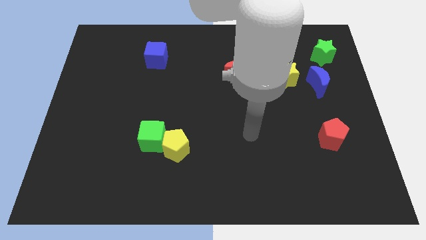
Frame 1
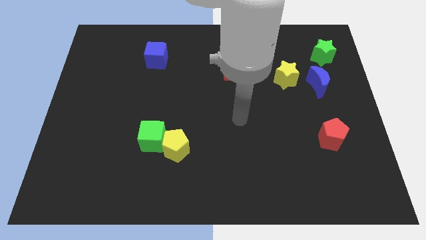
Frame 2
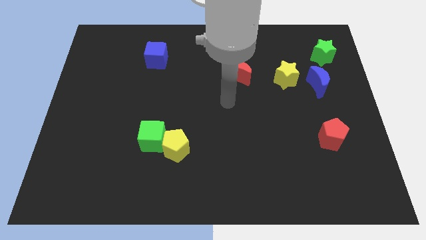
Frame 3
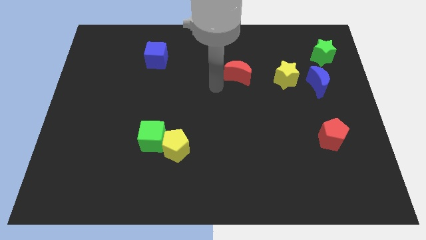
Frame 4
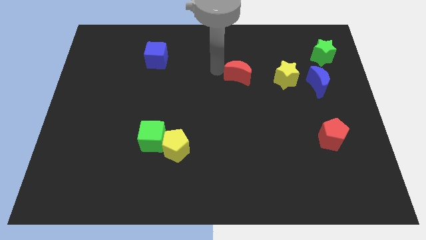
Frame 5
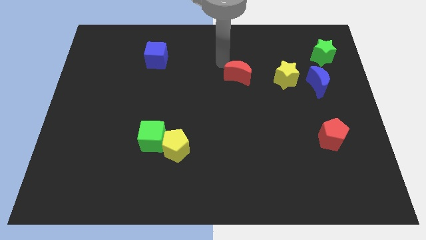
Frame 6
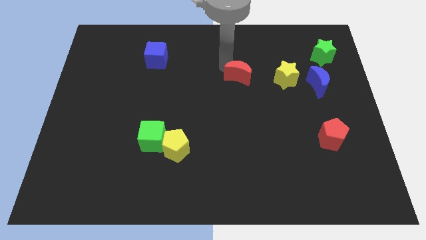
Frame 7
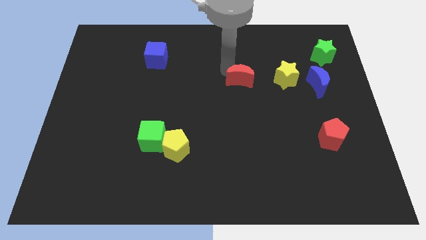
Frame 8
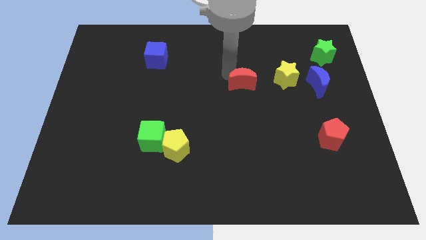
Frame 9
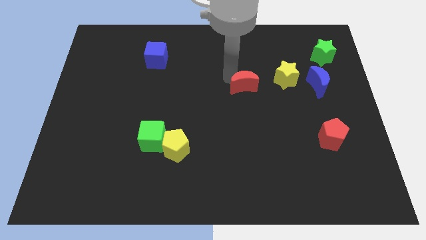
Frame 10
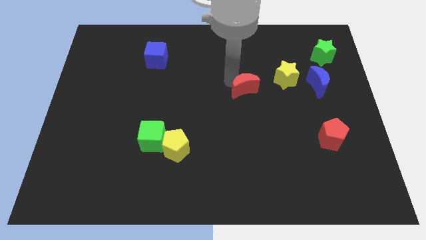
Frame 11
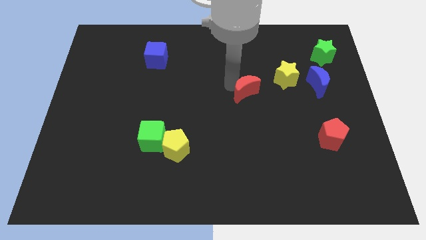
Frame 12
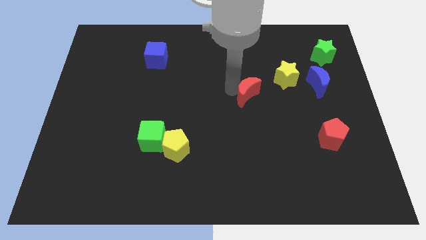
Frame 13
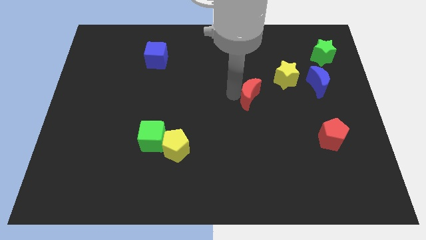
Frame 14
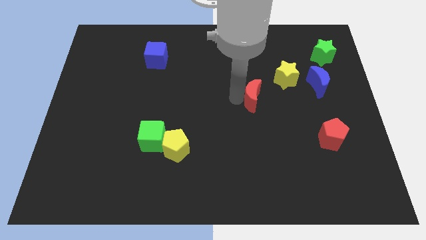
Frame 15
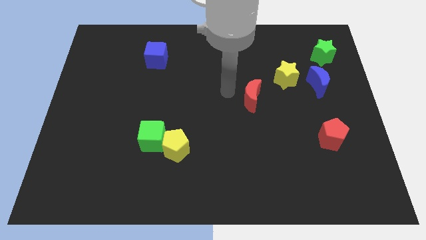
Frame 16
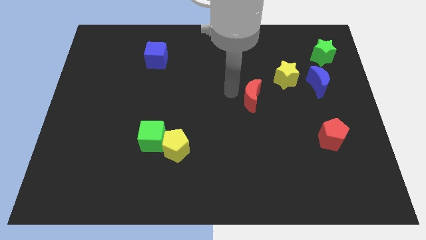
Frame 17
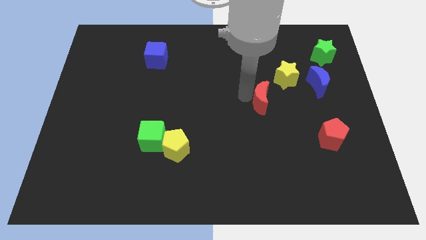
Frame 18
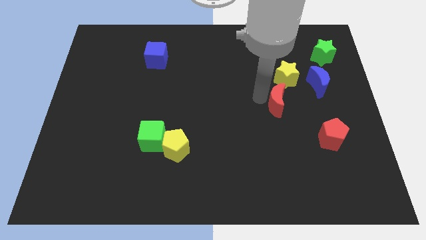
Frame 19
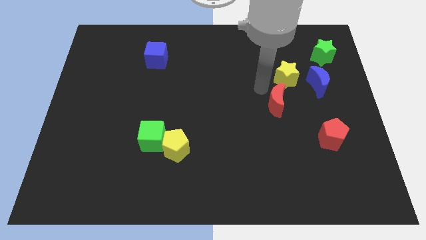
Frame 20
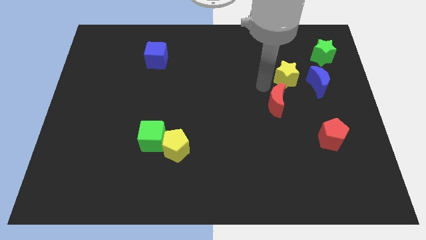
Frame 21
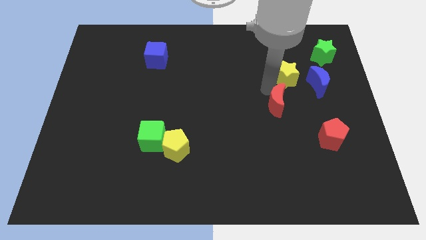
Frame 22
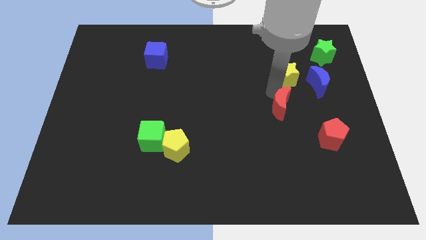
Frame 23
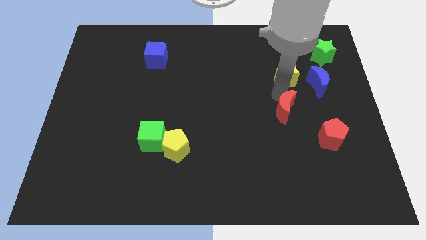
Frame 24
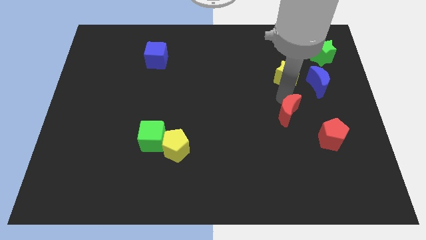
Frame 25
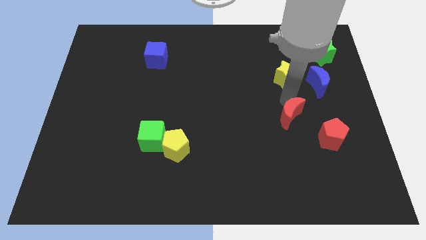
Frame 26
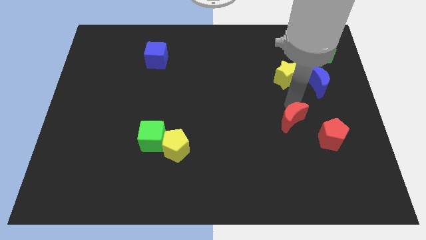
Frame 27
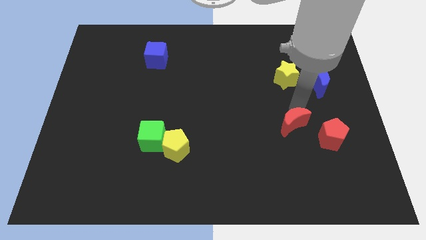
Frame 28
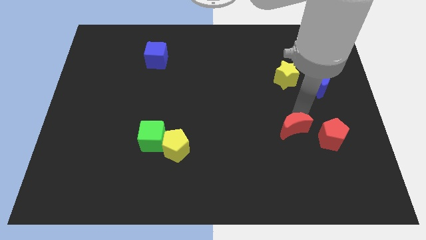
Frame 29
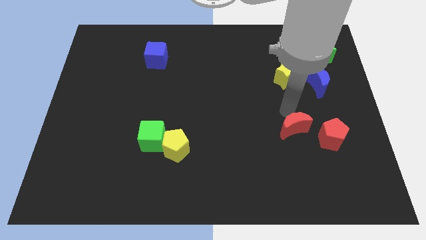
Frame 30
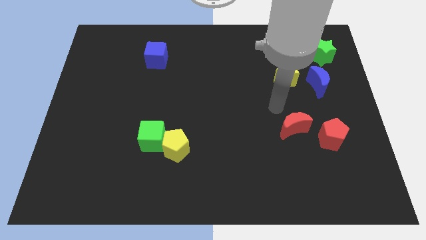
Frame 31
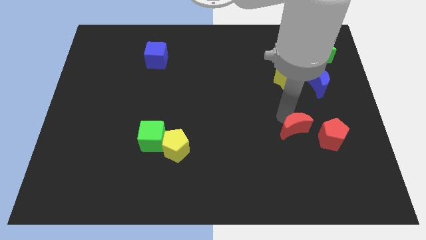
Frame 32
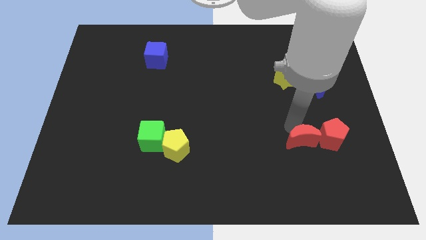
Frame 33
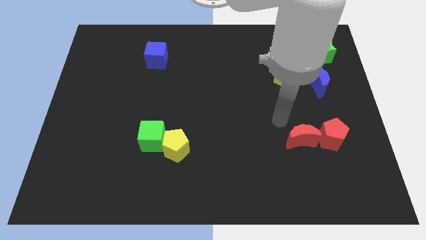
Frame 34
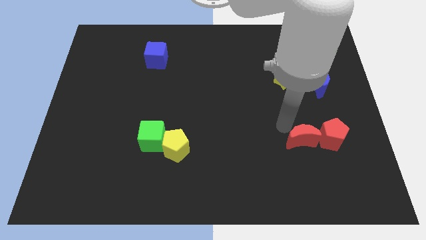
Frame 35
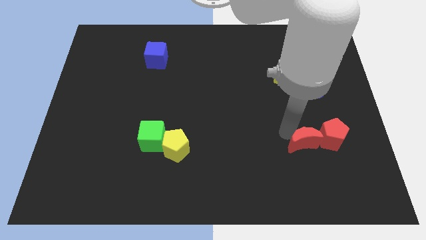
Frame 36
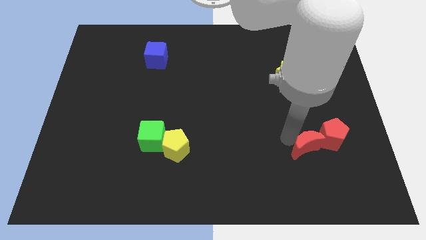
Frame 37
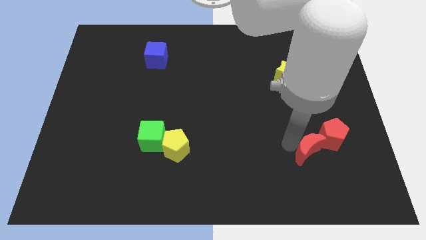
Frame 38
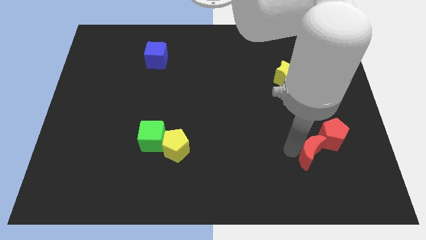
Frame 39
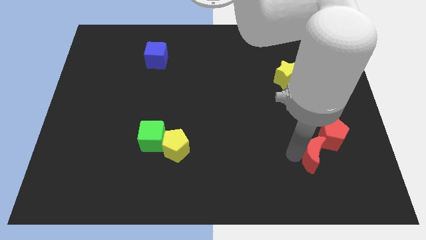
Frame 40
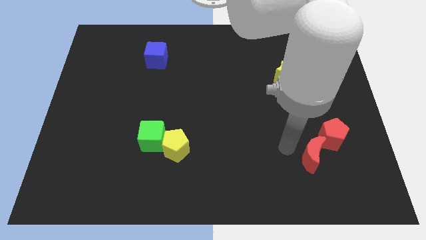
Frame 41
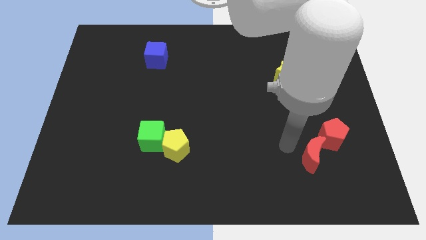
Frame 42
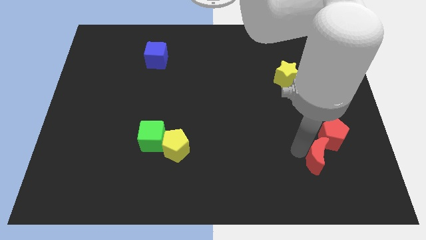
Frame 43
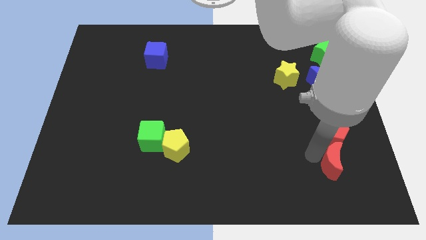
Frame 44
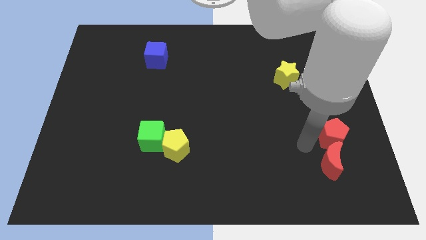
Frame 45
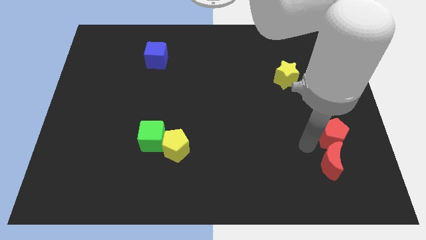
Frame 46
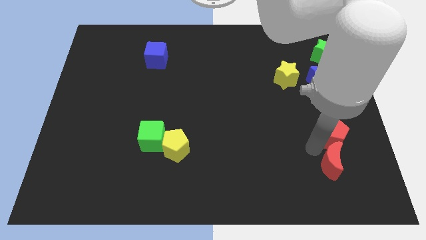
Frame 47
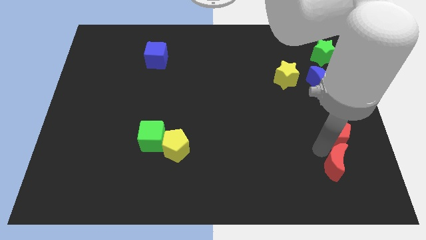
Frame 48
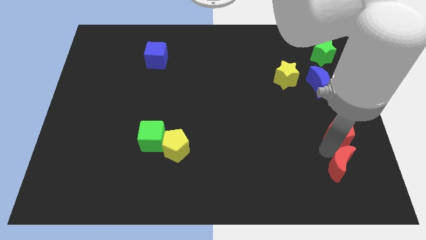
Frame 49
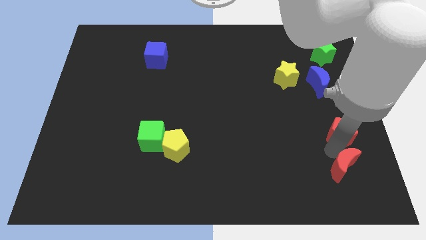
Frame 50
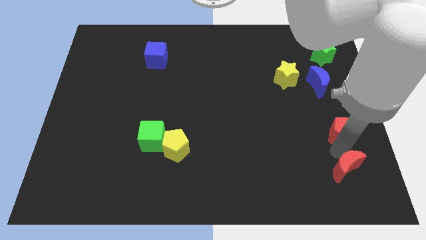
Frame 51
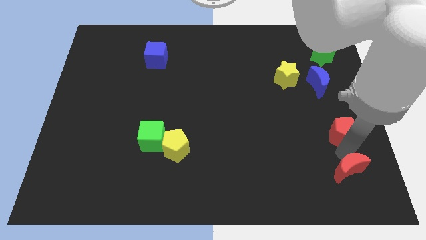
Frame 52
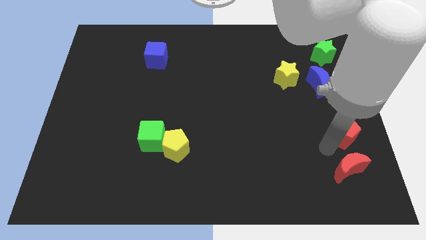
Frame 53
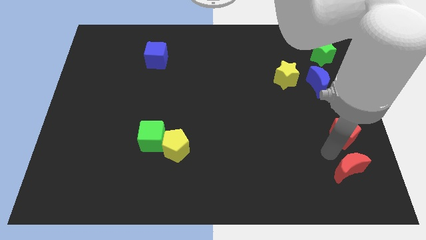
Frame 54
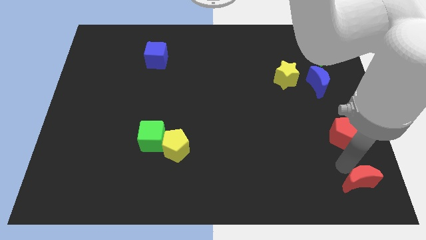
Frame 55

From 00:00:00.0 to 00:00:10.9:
push the red moon to the bottom right

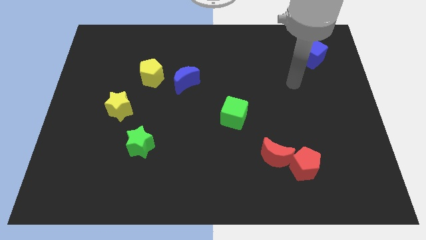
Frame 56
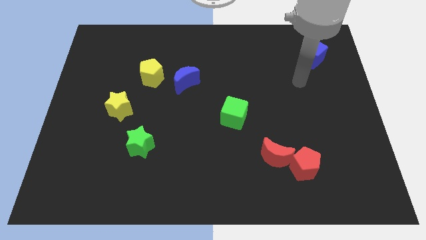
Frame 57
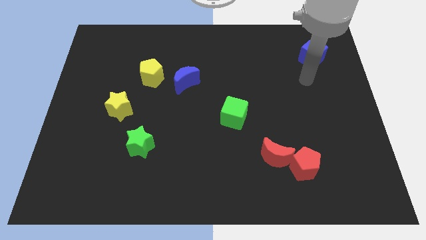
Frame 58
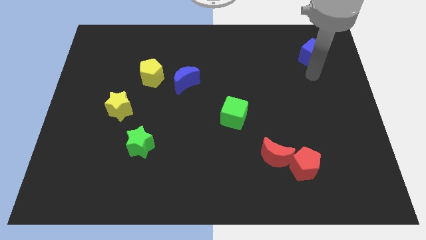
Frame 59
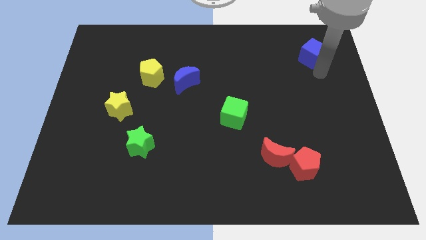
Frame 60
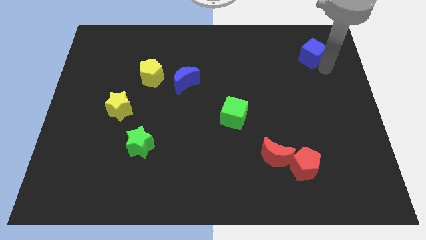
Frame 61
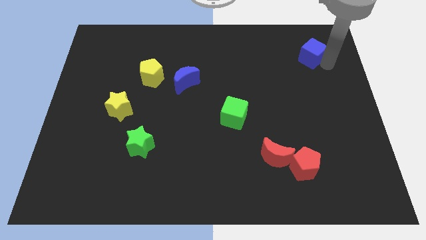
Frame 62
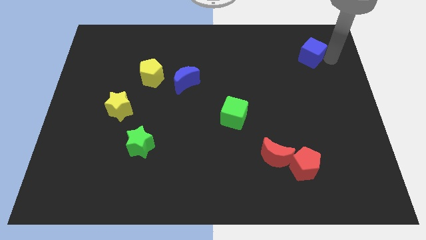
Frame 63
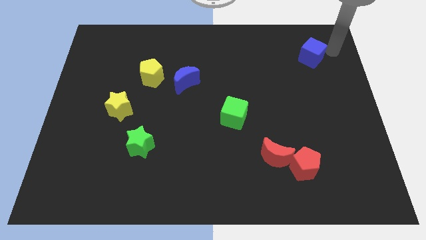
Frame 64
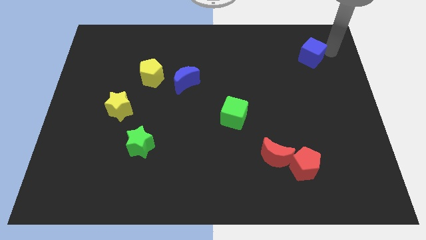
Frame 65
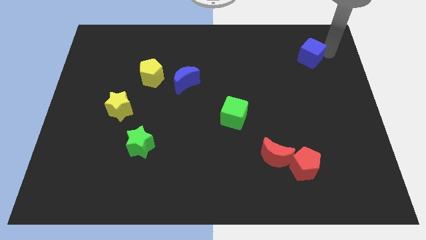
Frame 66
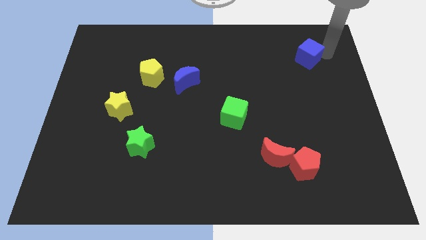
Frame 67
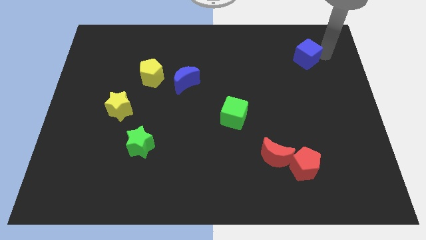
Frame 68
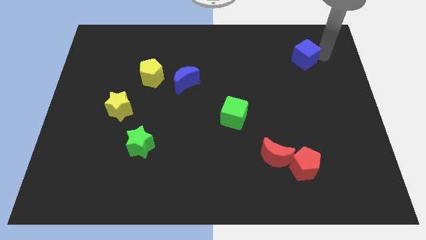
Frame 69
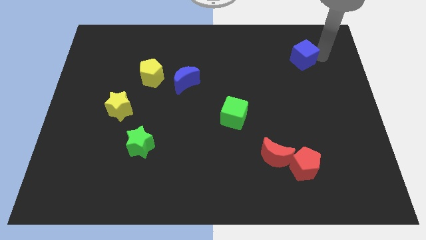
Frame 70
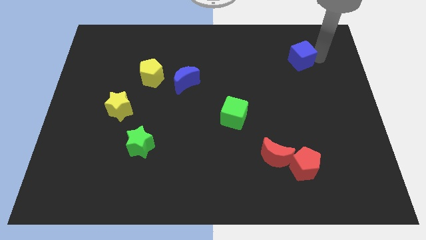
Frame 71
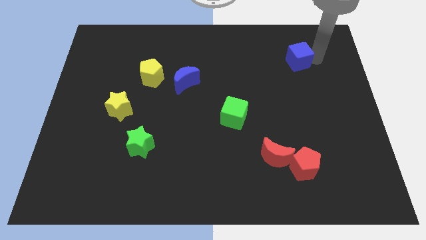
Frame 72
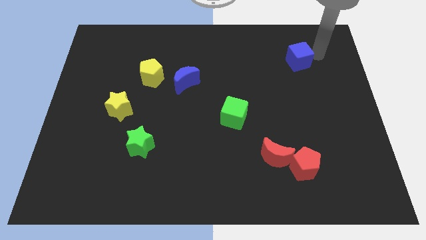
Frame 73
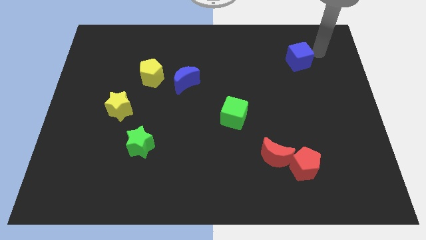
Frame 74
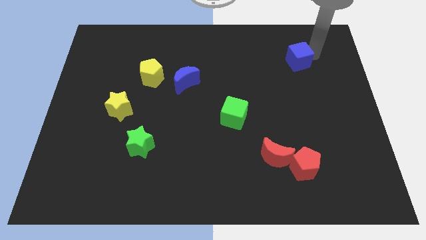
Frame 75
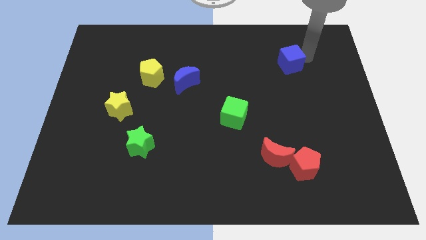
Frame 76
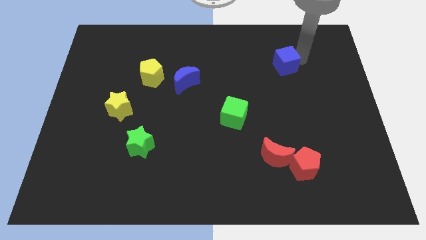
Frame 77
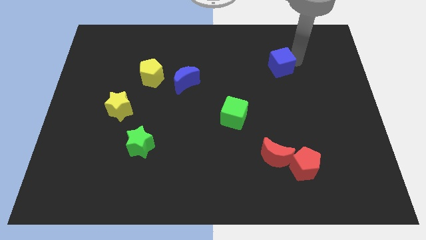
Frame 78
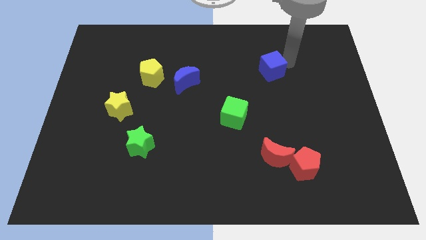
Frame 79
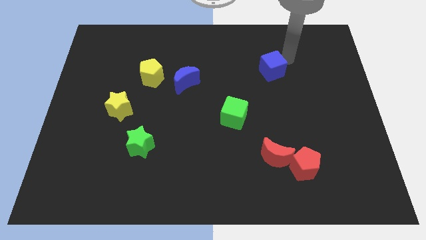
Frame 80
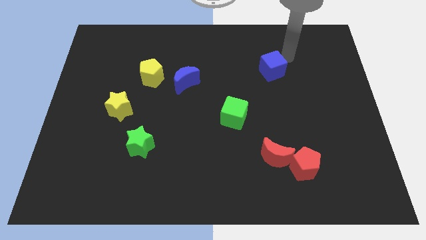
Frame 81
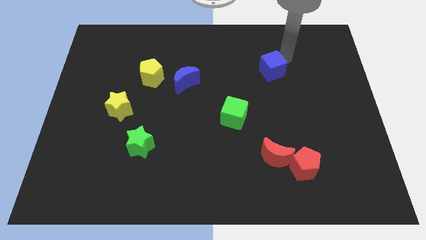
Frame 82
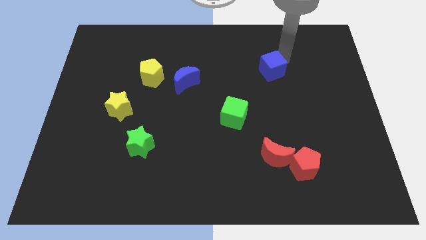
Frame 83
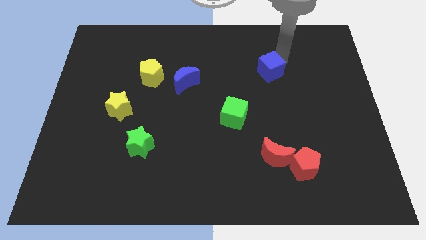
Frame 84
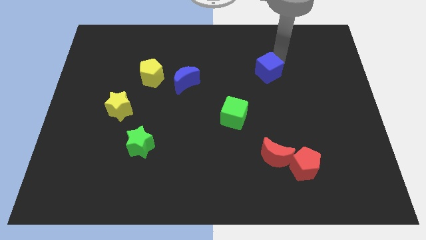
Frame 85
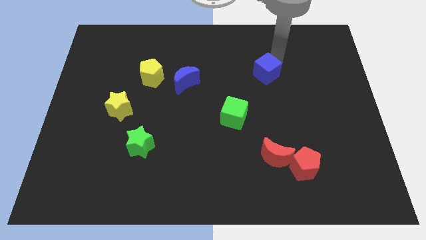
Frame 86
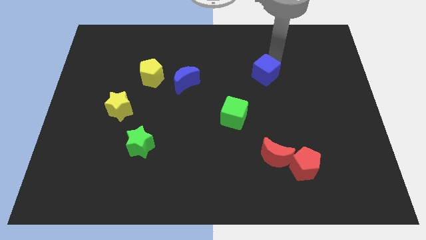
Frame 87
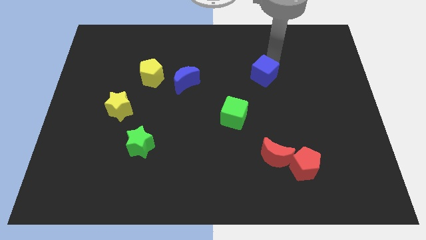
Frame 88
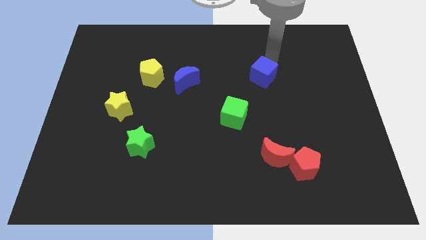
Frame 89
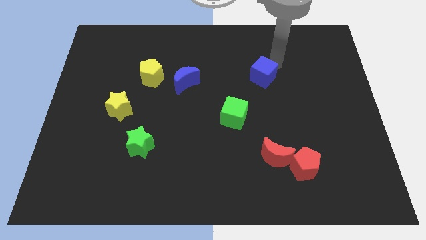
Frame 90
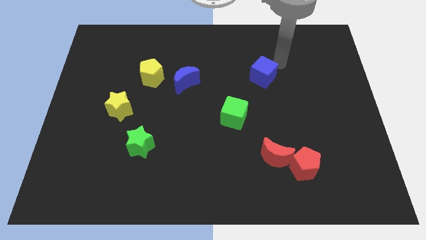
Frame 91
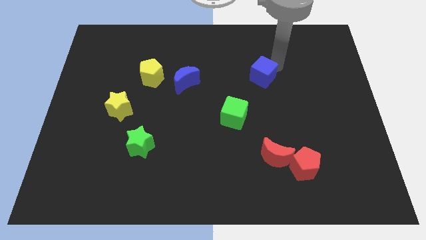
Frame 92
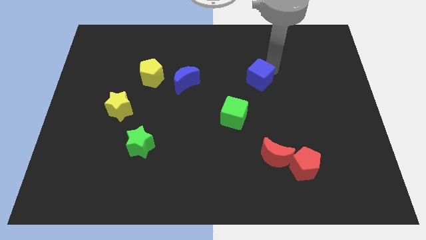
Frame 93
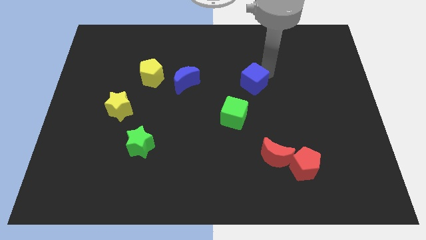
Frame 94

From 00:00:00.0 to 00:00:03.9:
push the blue cube to the middle
